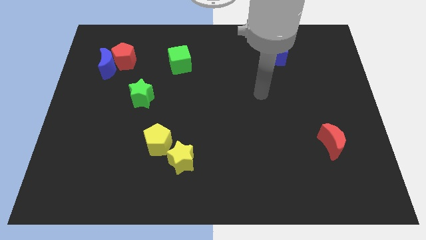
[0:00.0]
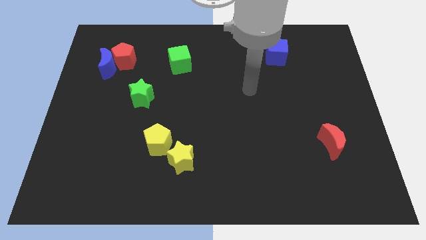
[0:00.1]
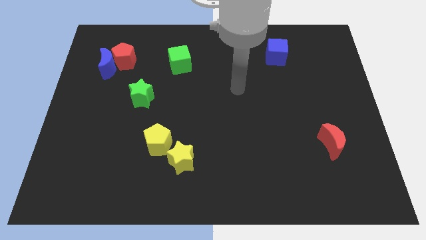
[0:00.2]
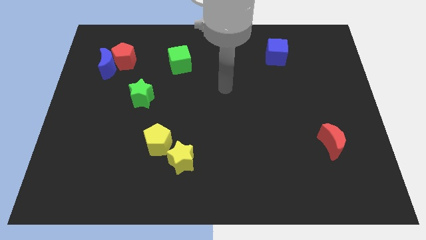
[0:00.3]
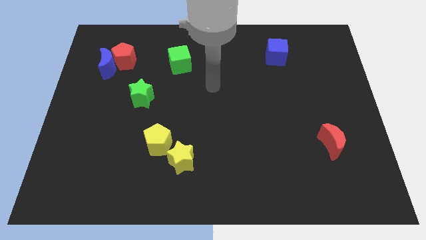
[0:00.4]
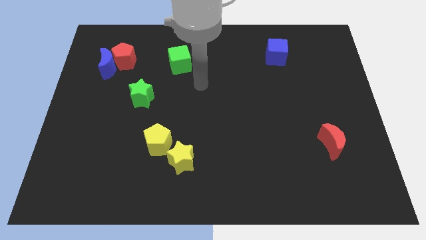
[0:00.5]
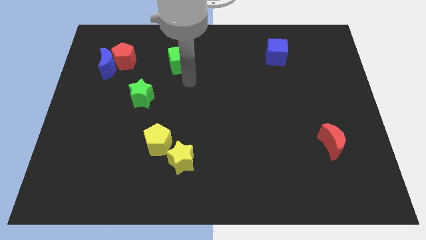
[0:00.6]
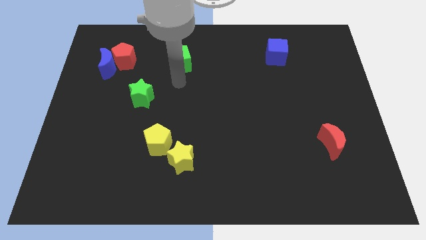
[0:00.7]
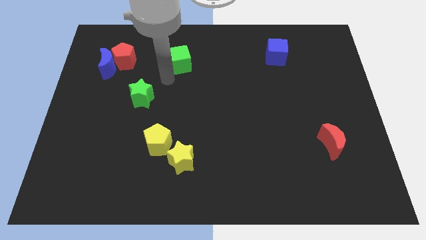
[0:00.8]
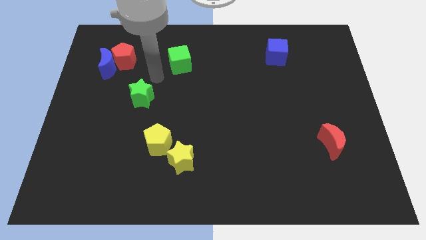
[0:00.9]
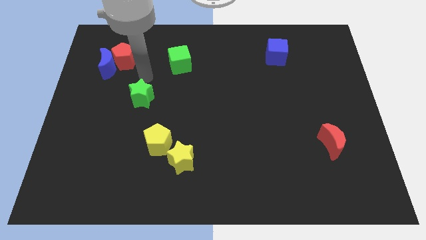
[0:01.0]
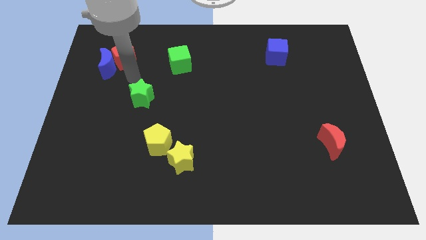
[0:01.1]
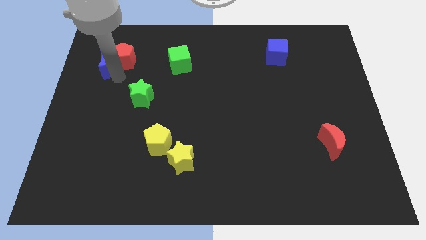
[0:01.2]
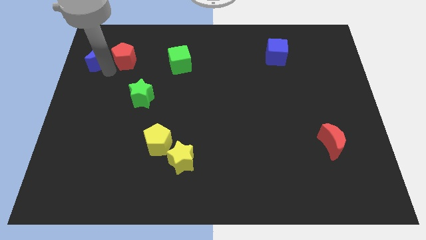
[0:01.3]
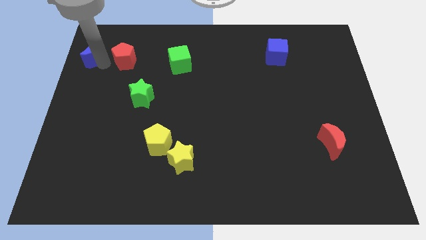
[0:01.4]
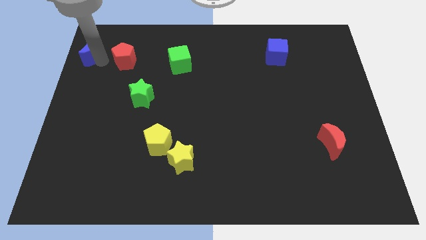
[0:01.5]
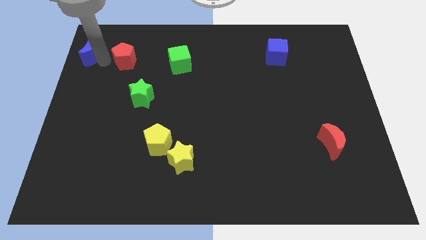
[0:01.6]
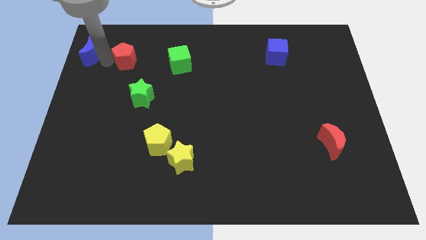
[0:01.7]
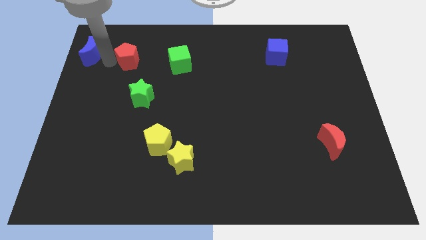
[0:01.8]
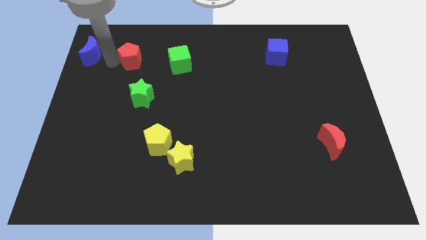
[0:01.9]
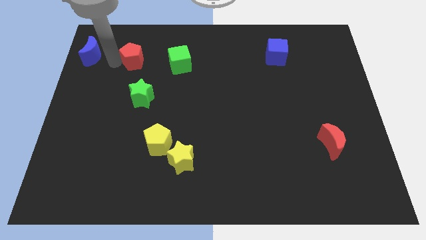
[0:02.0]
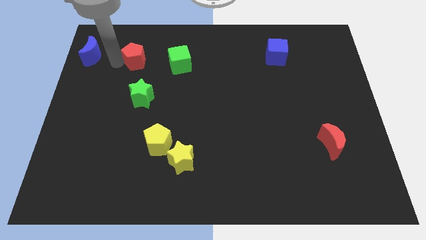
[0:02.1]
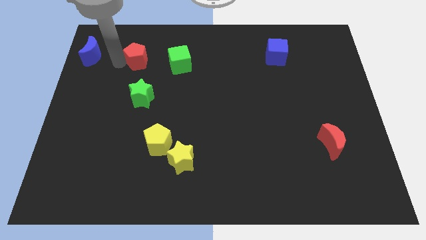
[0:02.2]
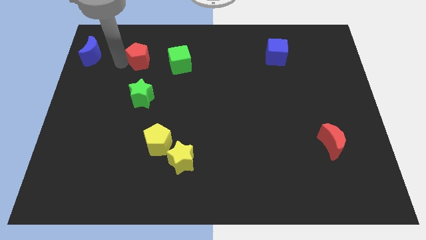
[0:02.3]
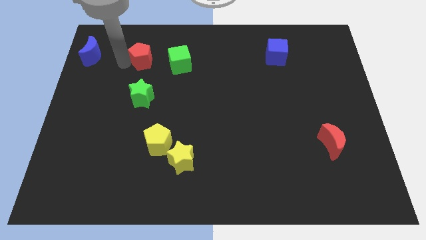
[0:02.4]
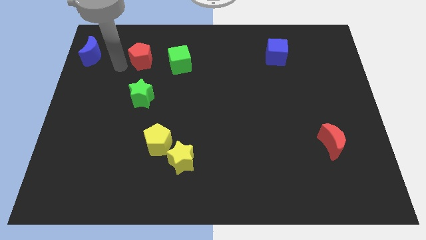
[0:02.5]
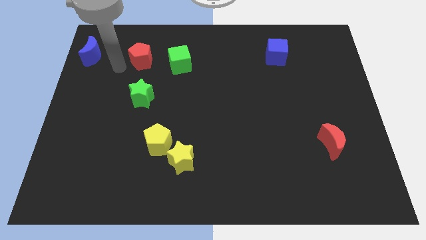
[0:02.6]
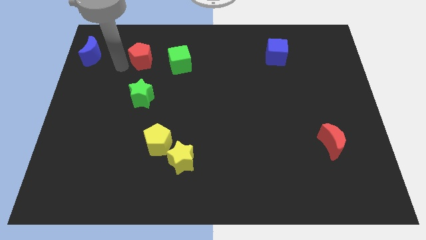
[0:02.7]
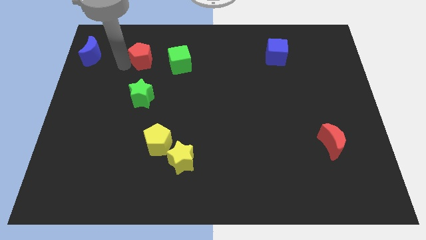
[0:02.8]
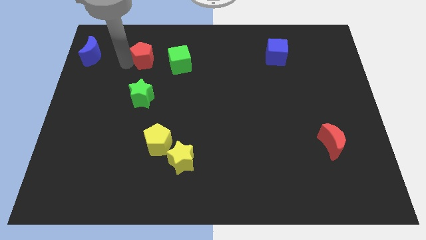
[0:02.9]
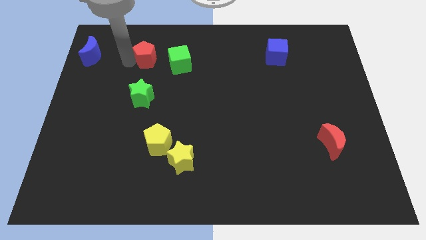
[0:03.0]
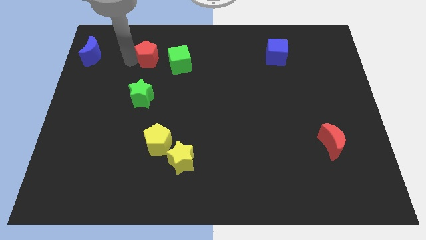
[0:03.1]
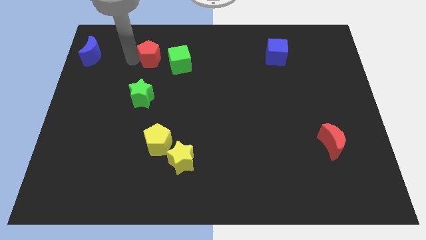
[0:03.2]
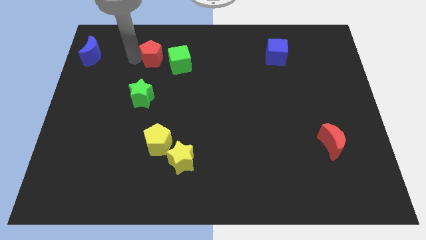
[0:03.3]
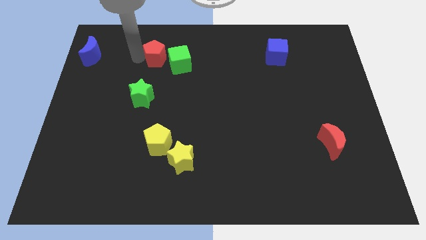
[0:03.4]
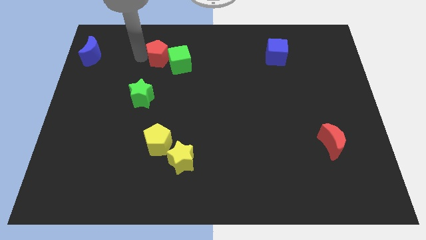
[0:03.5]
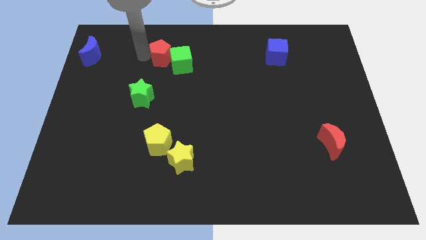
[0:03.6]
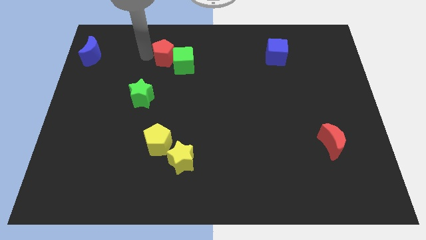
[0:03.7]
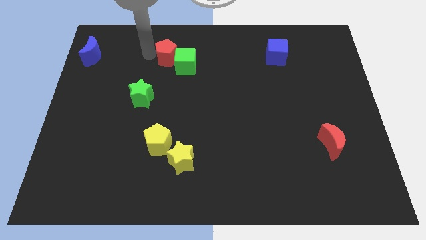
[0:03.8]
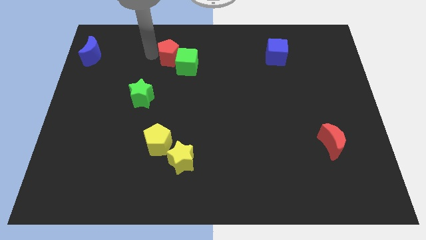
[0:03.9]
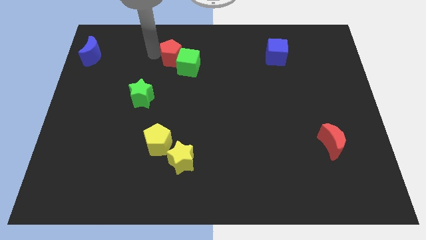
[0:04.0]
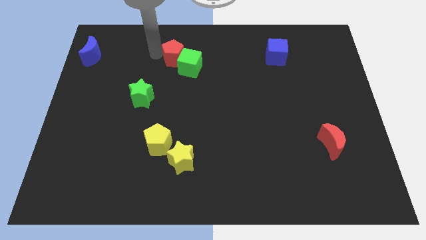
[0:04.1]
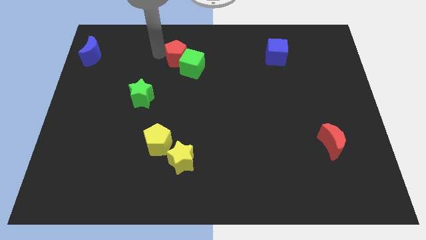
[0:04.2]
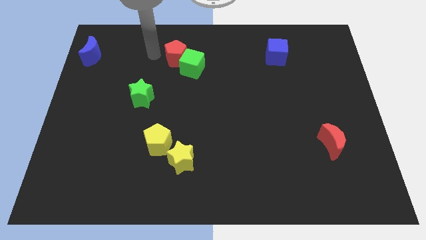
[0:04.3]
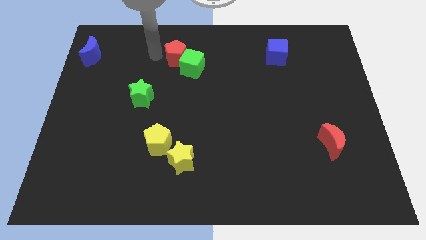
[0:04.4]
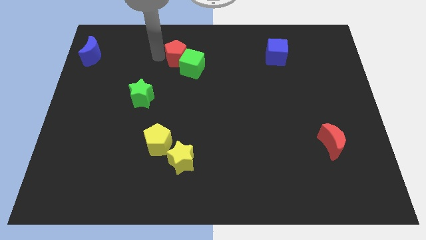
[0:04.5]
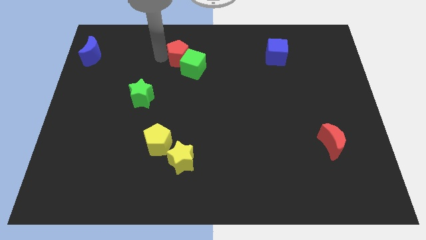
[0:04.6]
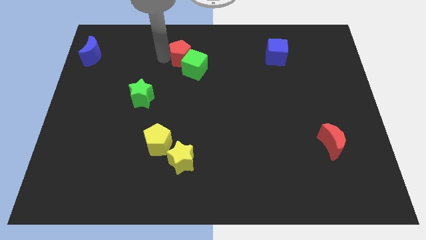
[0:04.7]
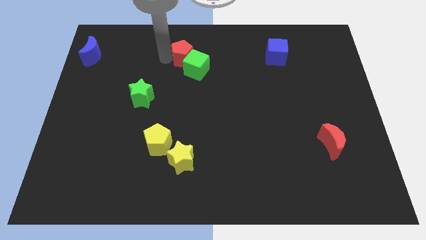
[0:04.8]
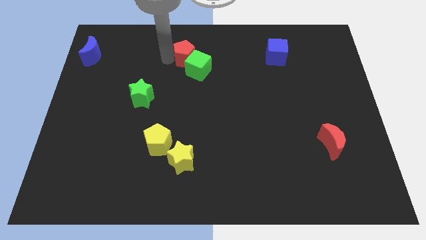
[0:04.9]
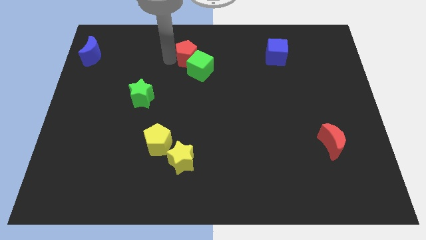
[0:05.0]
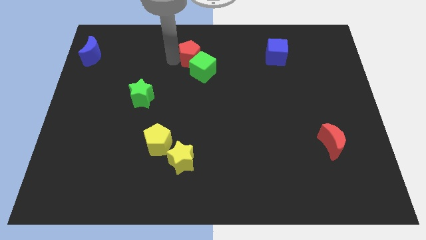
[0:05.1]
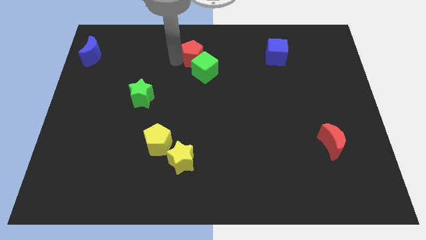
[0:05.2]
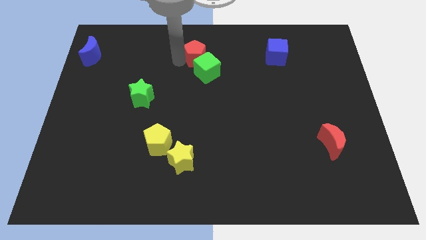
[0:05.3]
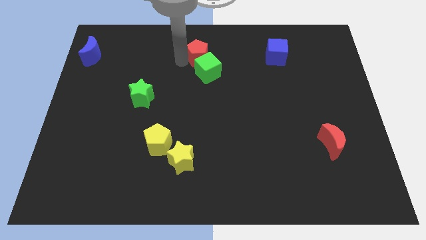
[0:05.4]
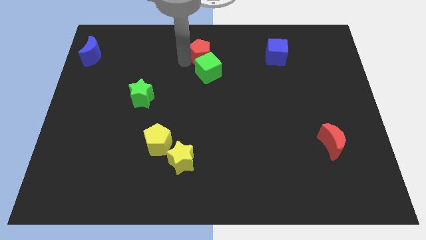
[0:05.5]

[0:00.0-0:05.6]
move the red pentagon right

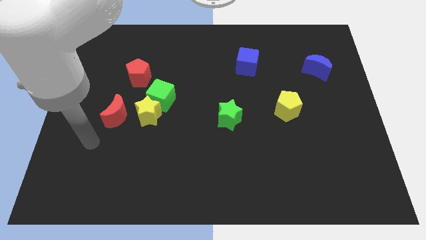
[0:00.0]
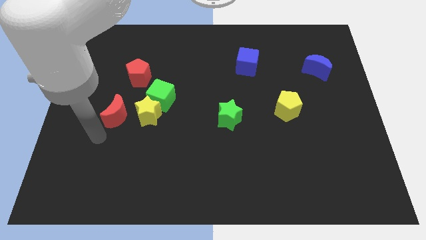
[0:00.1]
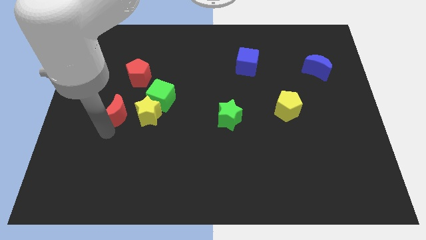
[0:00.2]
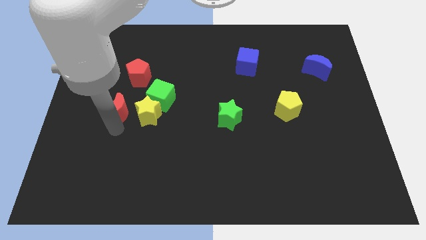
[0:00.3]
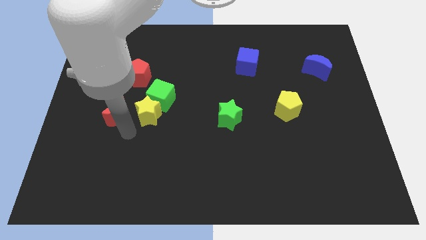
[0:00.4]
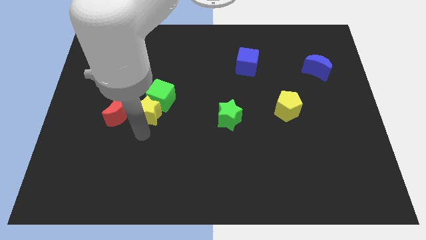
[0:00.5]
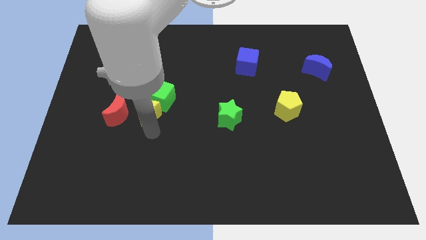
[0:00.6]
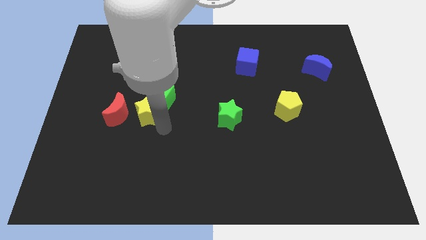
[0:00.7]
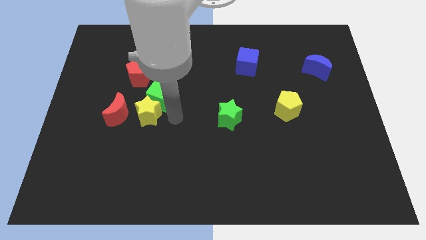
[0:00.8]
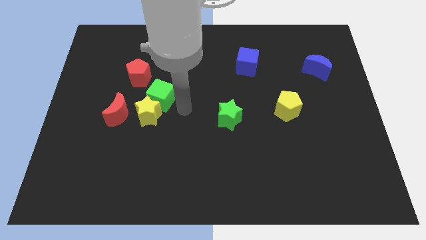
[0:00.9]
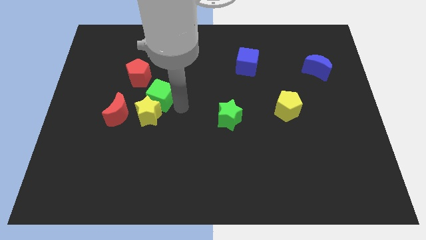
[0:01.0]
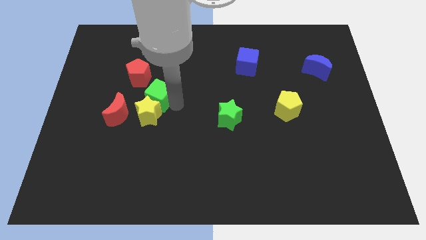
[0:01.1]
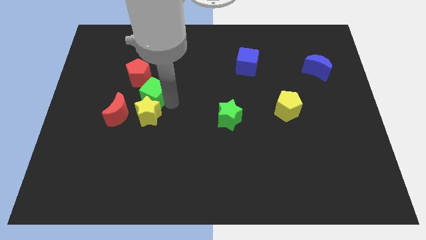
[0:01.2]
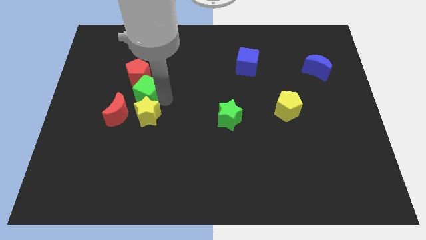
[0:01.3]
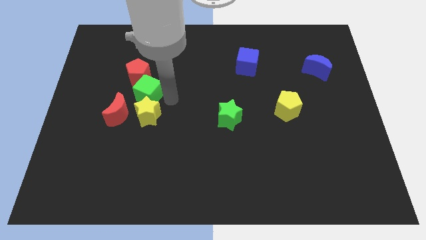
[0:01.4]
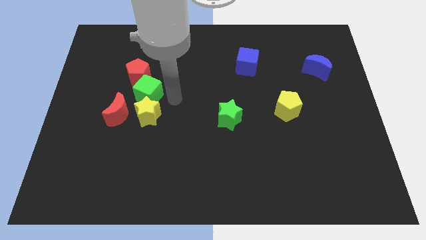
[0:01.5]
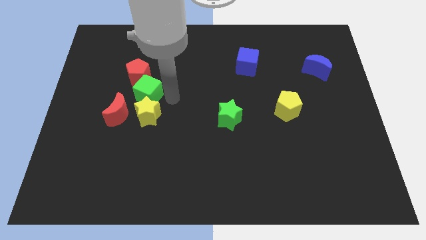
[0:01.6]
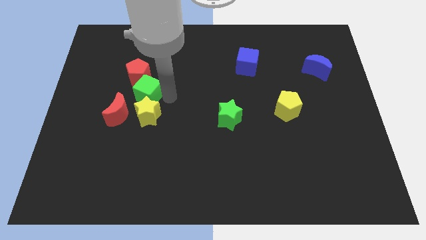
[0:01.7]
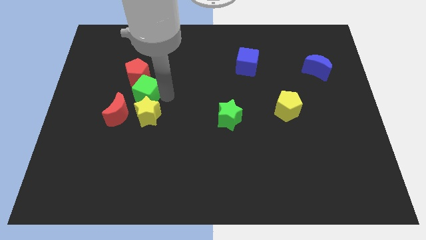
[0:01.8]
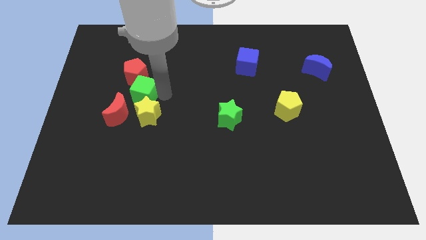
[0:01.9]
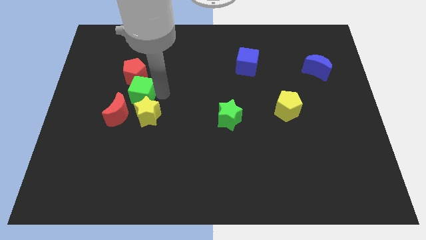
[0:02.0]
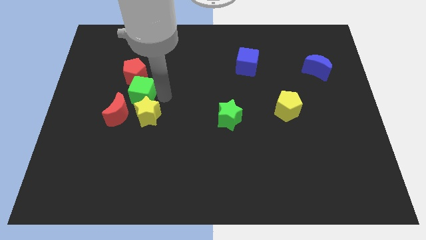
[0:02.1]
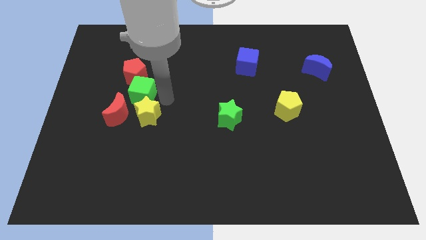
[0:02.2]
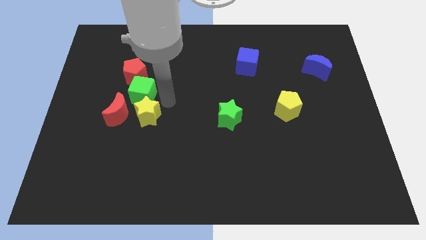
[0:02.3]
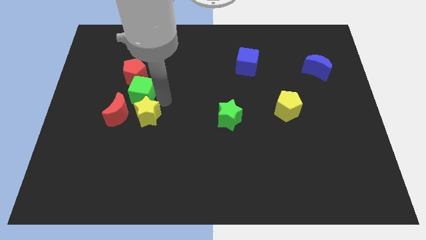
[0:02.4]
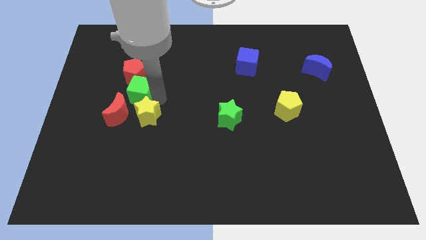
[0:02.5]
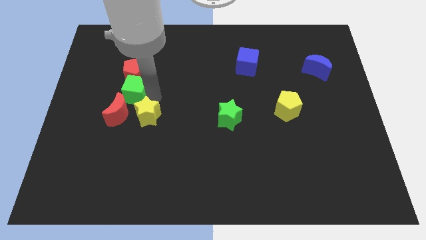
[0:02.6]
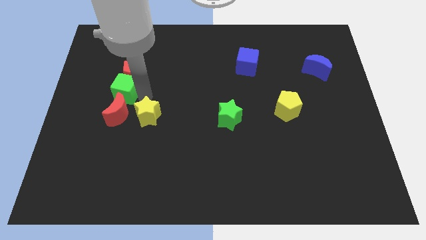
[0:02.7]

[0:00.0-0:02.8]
push the green cube upwards and then to the left a little
